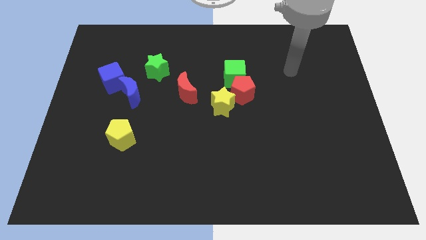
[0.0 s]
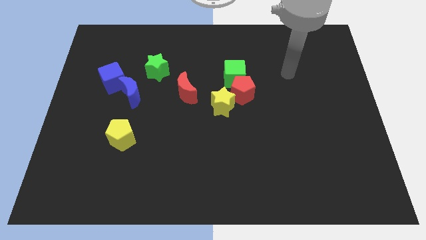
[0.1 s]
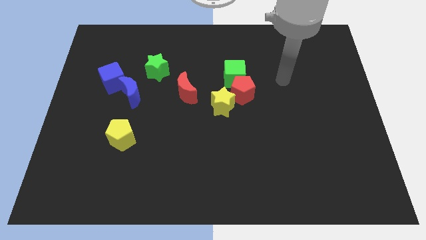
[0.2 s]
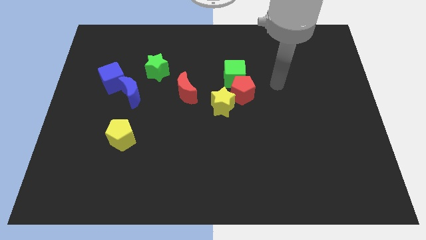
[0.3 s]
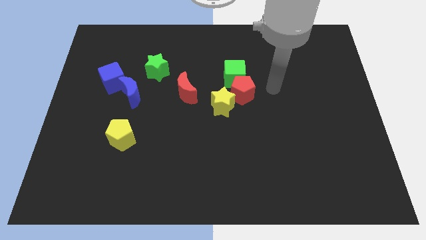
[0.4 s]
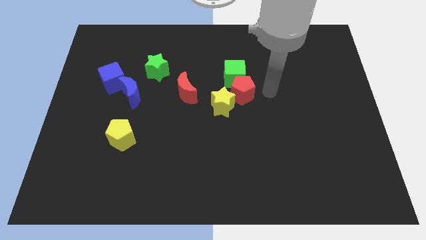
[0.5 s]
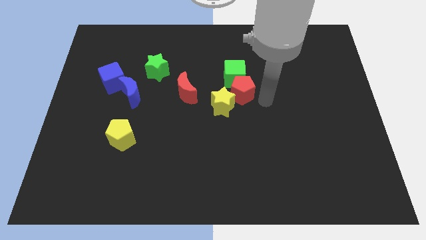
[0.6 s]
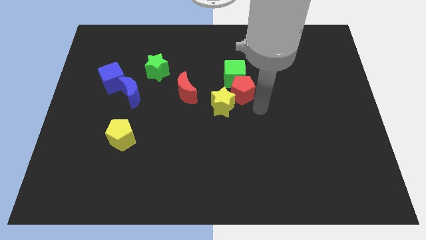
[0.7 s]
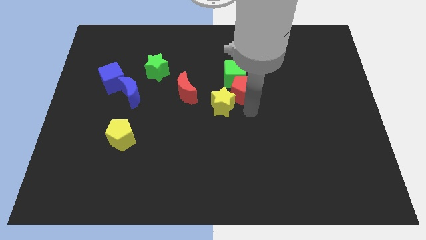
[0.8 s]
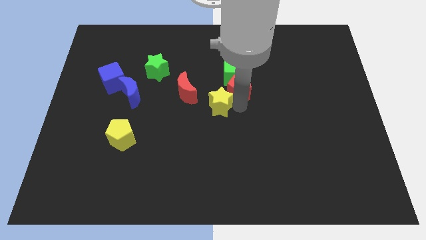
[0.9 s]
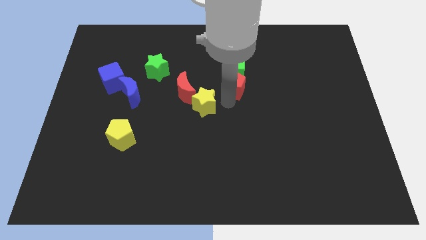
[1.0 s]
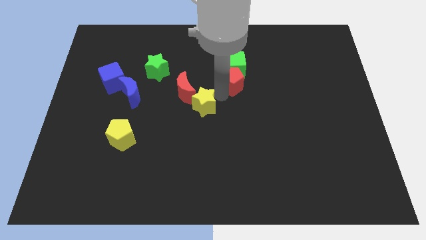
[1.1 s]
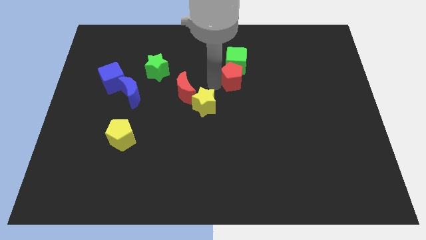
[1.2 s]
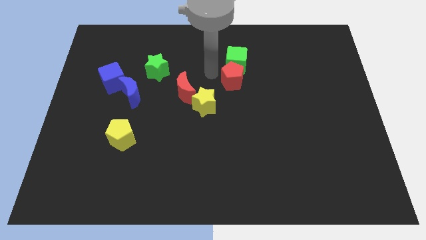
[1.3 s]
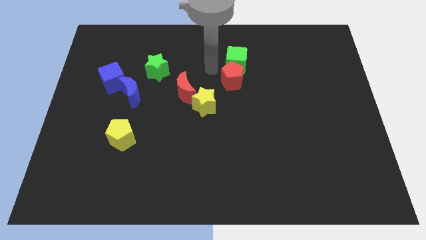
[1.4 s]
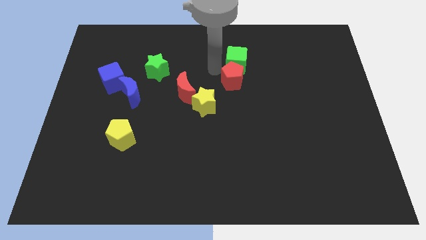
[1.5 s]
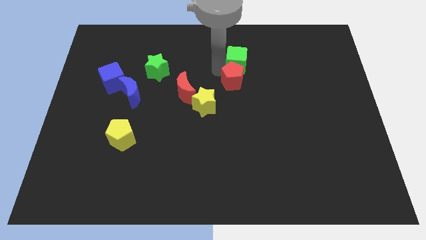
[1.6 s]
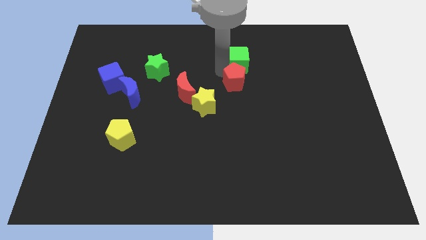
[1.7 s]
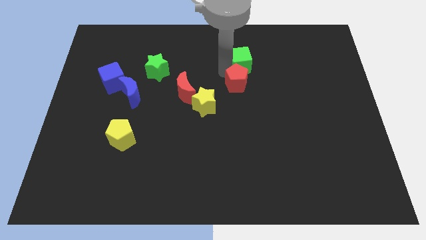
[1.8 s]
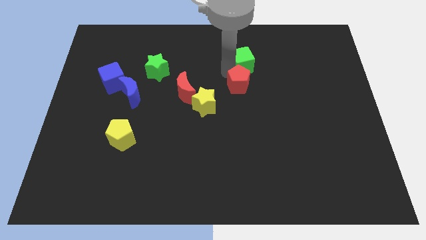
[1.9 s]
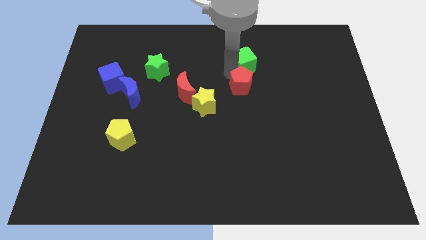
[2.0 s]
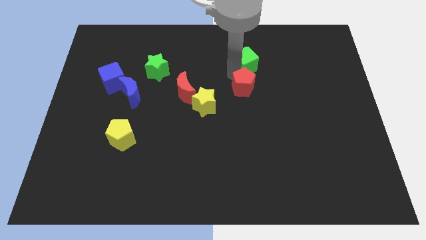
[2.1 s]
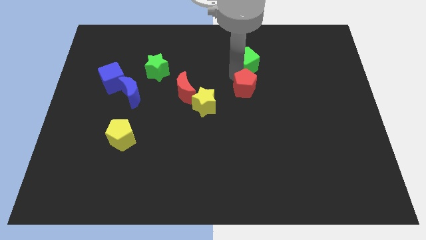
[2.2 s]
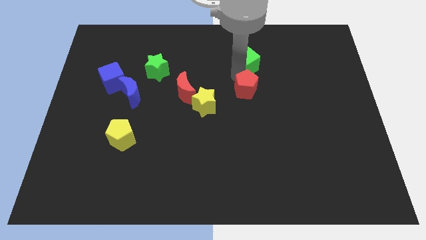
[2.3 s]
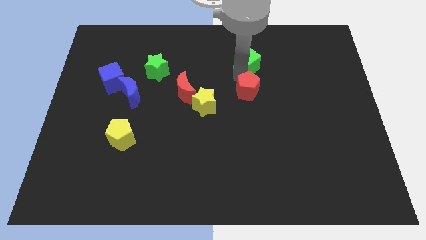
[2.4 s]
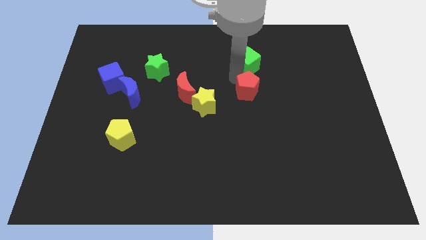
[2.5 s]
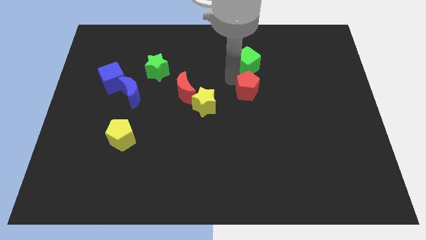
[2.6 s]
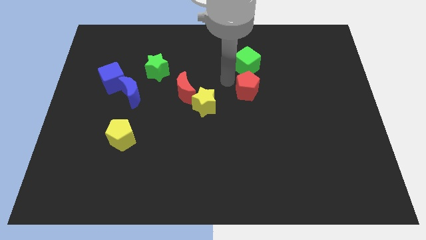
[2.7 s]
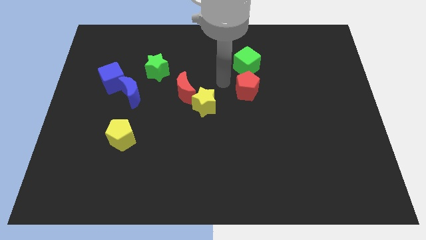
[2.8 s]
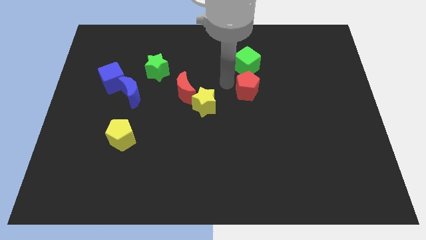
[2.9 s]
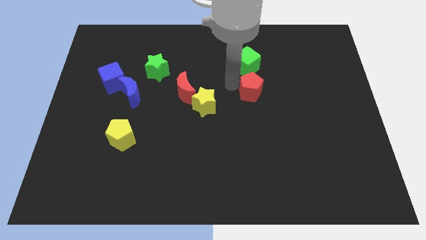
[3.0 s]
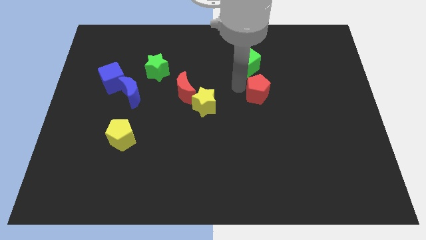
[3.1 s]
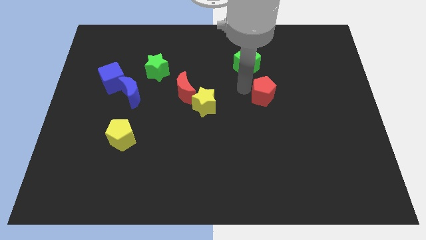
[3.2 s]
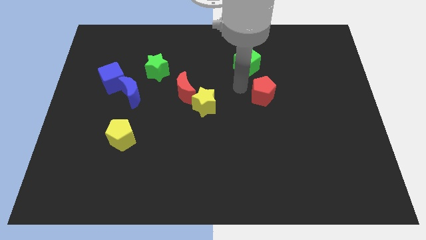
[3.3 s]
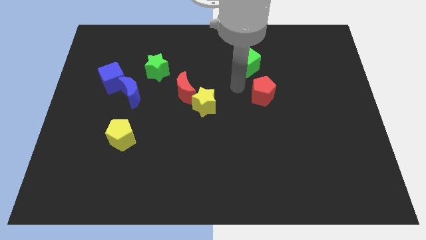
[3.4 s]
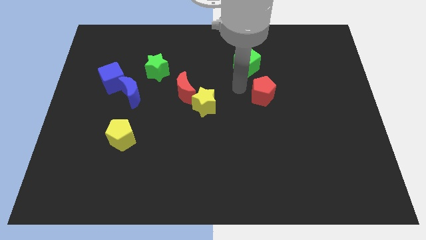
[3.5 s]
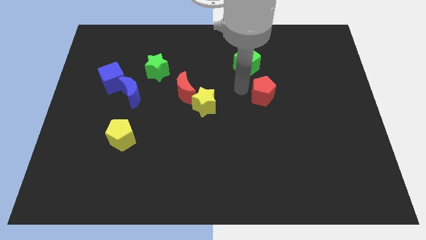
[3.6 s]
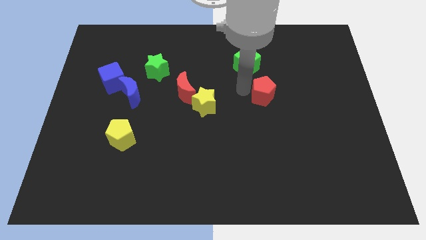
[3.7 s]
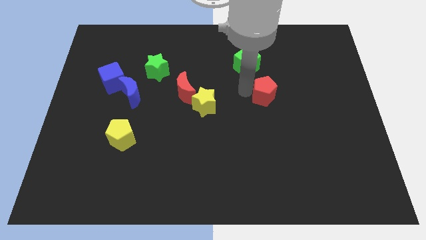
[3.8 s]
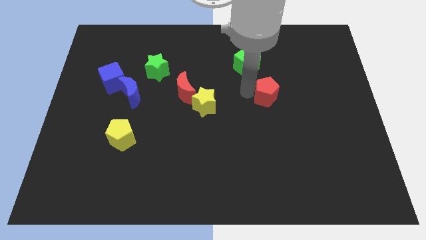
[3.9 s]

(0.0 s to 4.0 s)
move the red pentagon away from the green cube and yellow star

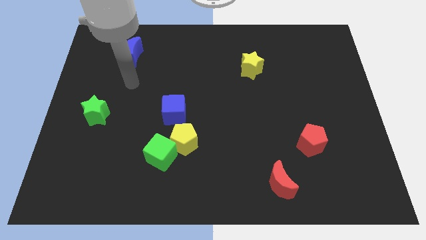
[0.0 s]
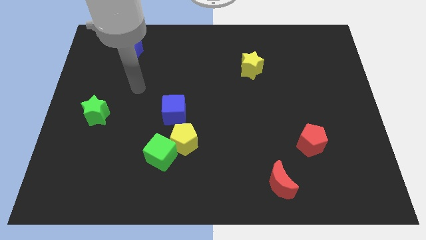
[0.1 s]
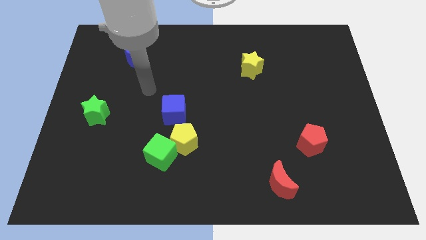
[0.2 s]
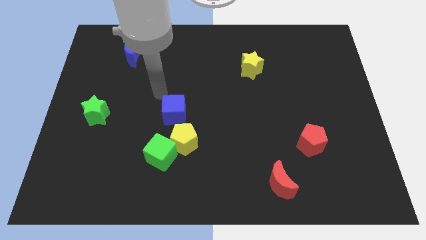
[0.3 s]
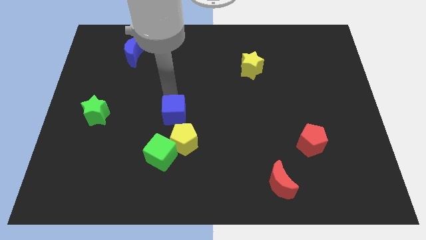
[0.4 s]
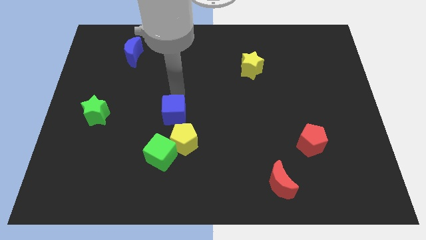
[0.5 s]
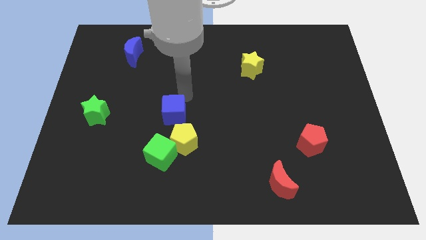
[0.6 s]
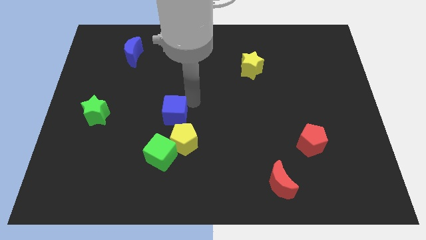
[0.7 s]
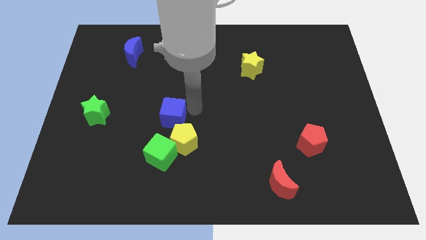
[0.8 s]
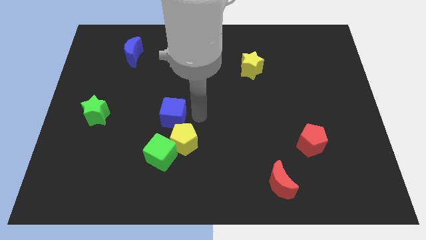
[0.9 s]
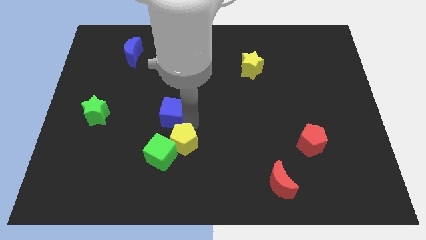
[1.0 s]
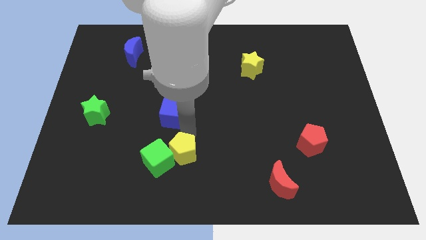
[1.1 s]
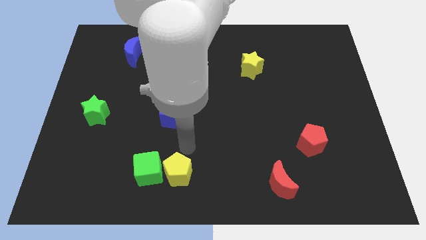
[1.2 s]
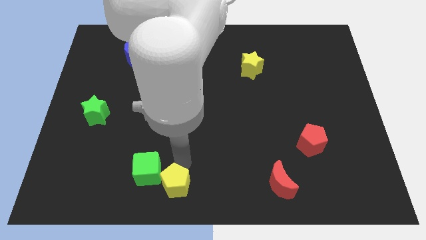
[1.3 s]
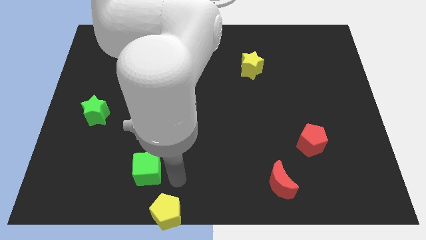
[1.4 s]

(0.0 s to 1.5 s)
pull the green cube apart from the yellow pentagon

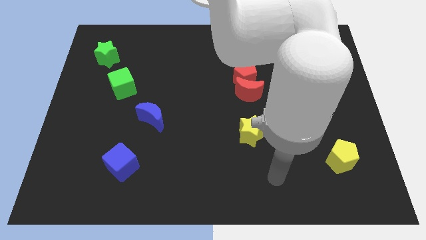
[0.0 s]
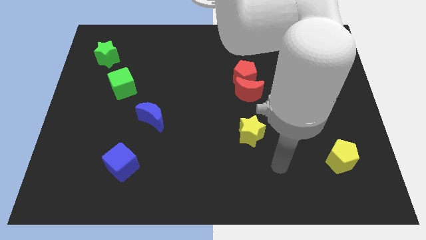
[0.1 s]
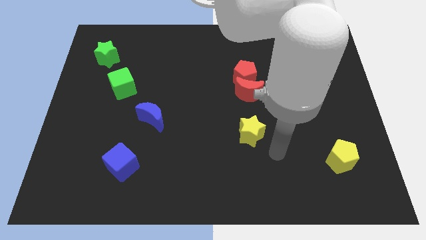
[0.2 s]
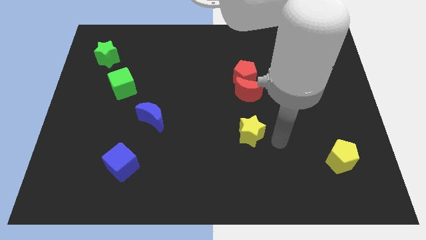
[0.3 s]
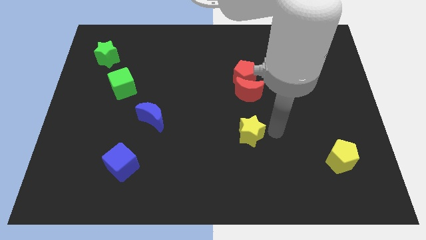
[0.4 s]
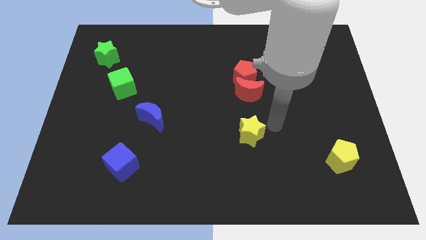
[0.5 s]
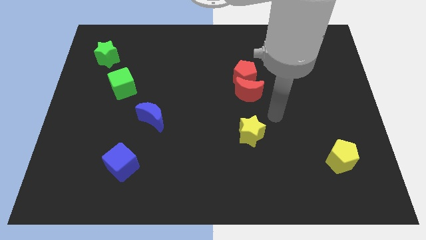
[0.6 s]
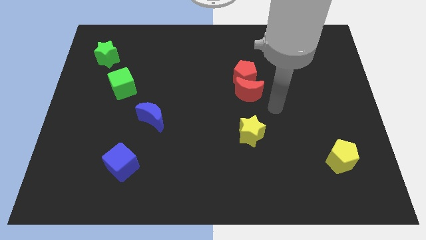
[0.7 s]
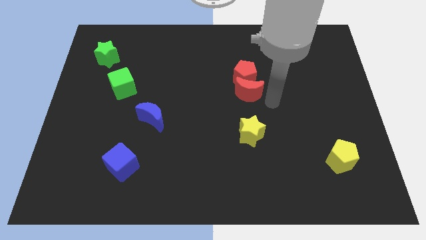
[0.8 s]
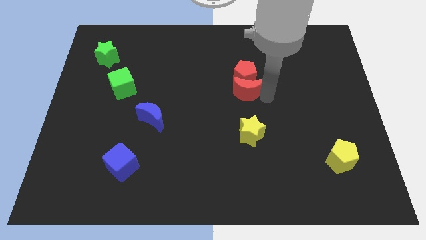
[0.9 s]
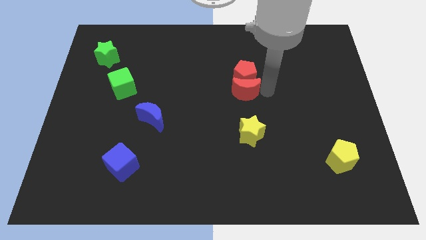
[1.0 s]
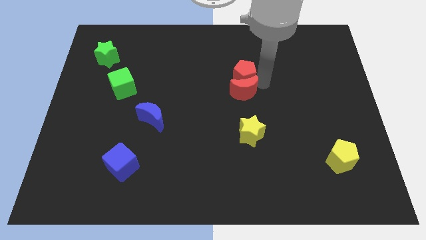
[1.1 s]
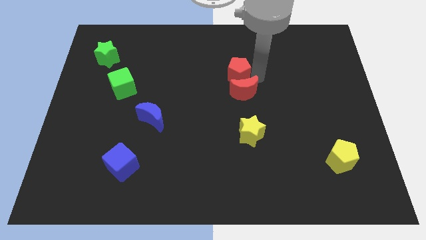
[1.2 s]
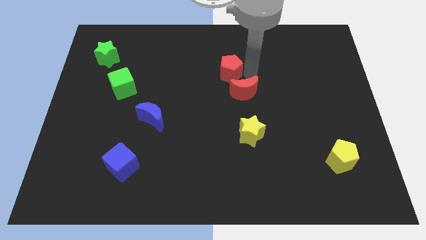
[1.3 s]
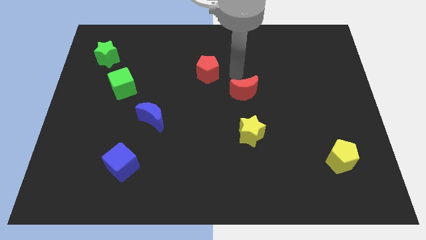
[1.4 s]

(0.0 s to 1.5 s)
separate the red moon from the red pentagon

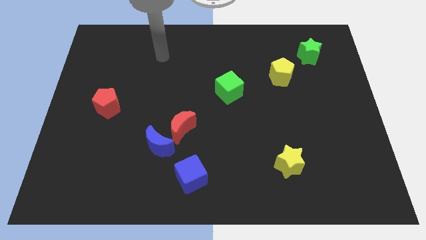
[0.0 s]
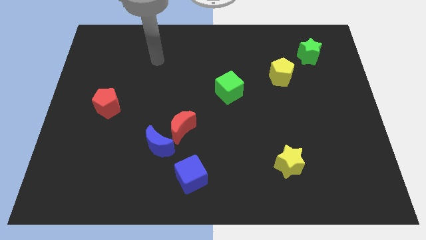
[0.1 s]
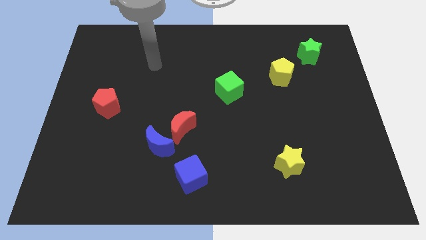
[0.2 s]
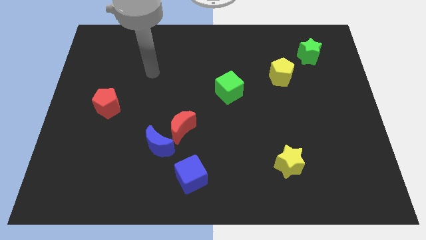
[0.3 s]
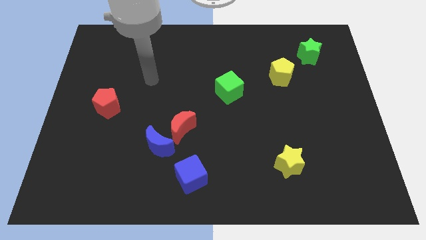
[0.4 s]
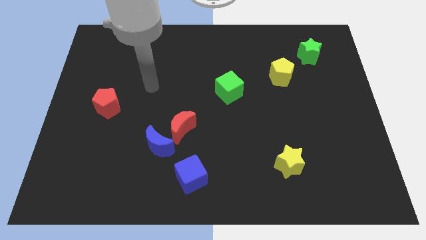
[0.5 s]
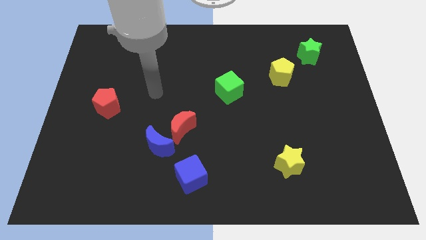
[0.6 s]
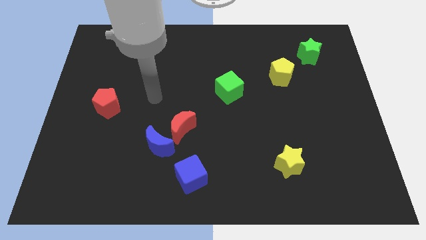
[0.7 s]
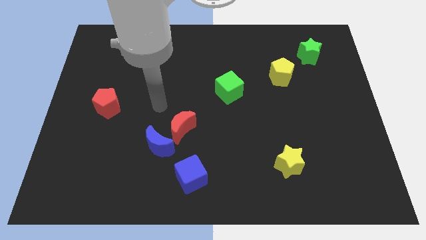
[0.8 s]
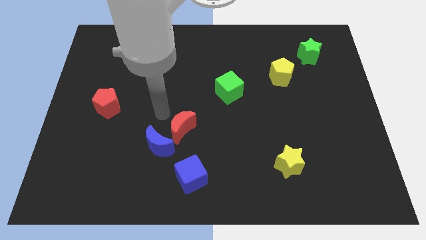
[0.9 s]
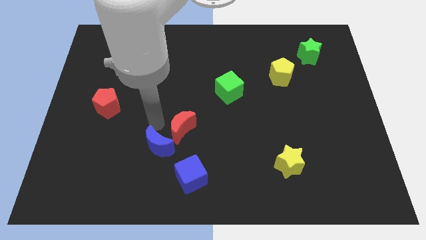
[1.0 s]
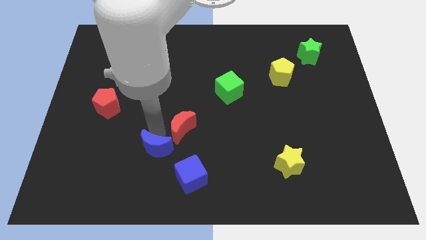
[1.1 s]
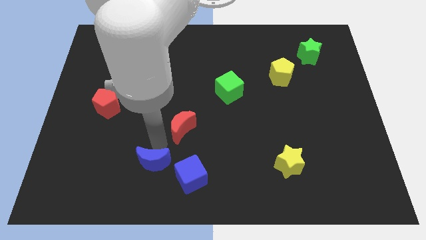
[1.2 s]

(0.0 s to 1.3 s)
separate the red moon from the blue moon

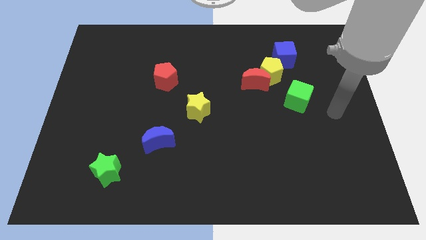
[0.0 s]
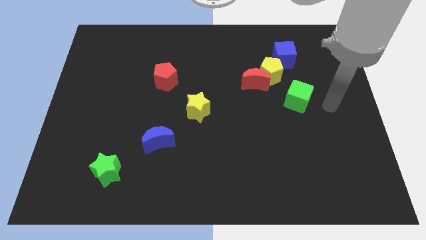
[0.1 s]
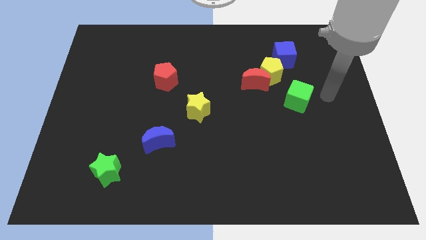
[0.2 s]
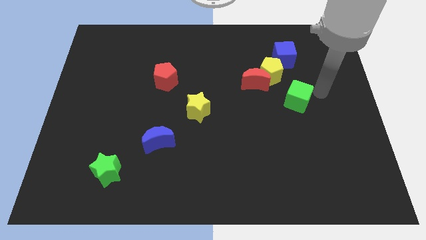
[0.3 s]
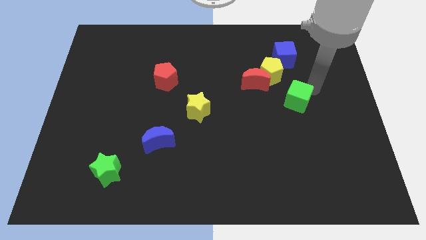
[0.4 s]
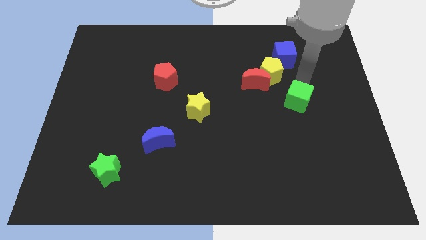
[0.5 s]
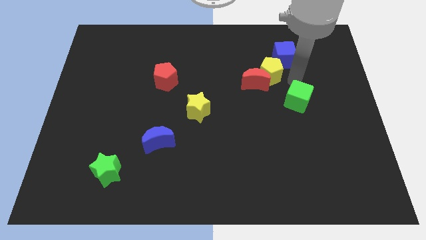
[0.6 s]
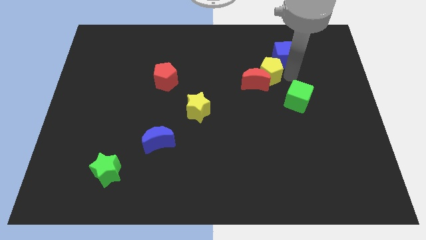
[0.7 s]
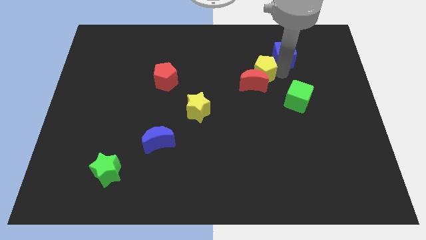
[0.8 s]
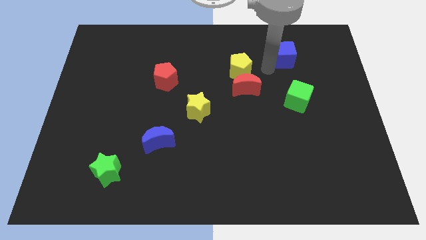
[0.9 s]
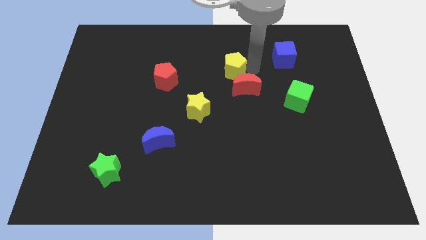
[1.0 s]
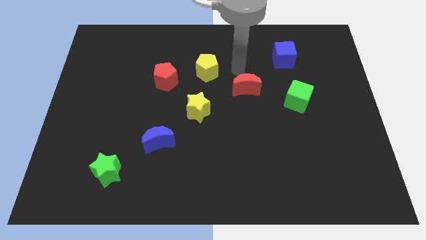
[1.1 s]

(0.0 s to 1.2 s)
separate the red moon from the yellow pentagon

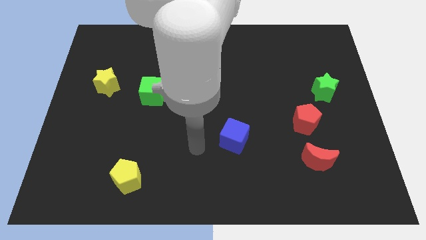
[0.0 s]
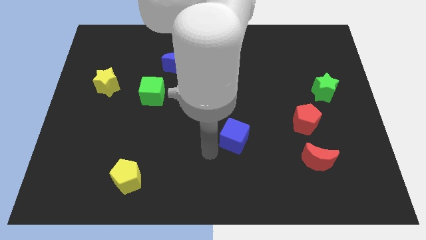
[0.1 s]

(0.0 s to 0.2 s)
move the red moon away from the red pentagon
